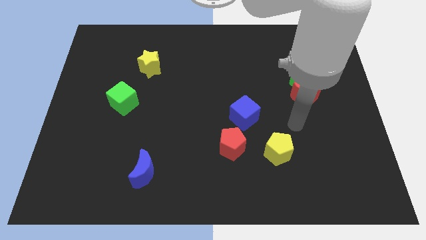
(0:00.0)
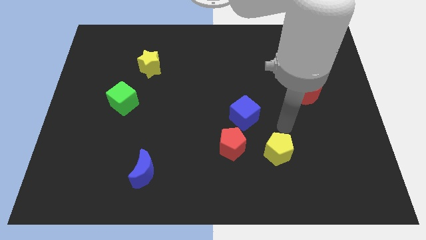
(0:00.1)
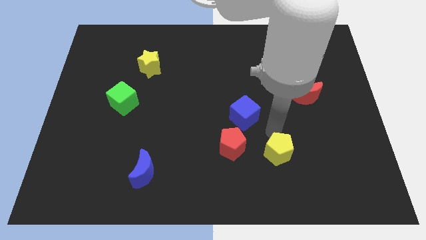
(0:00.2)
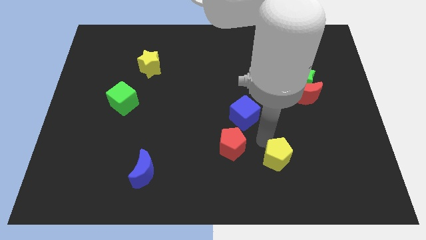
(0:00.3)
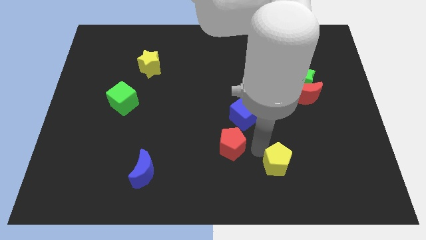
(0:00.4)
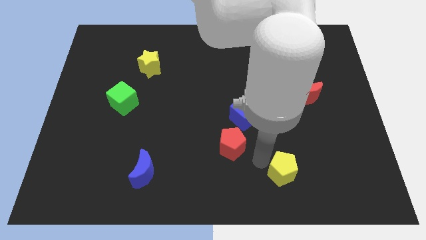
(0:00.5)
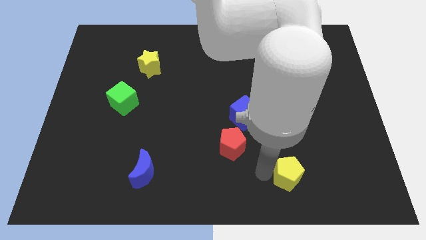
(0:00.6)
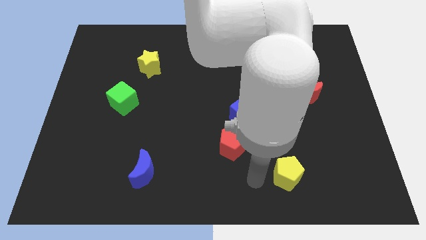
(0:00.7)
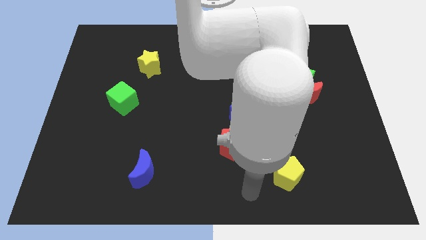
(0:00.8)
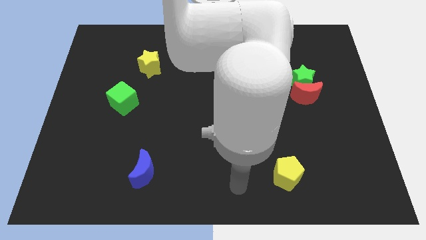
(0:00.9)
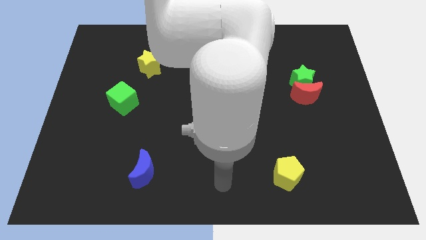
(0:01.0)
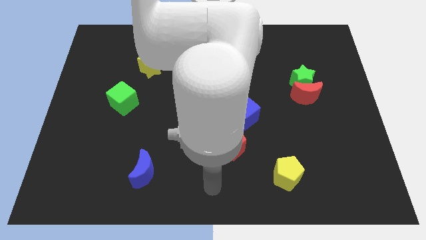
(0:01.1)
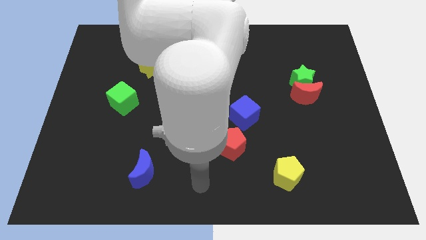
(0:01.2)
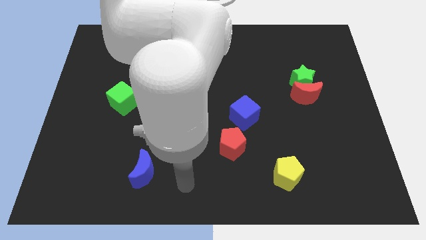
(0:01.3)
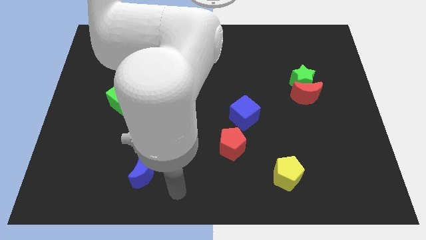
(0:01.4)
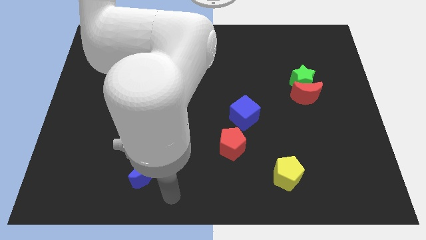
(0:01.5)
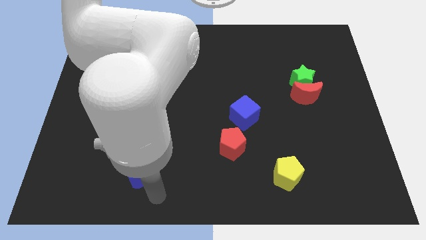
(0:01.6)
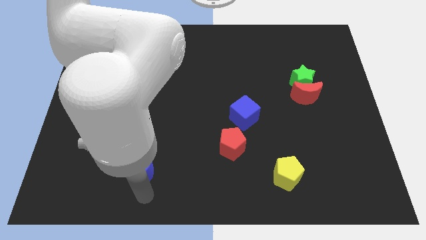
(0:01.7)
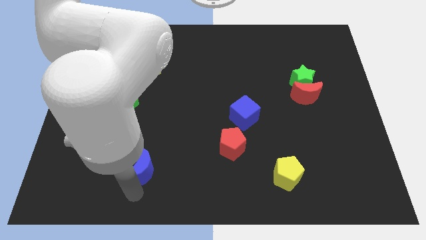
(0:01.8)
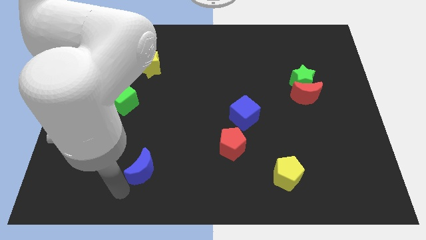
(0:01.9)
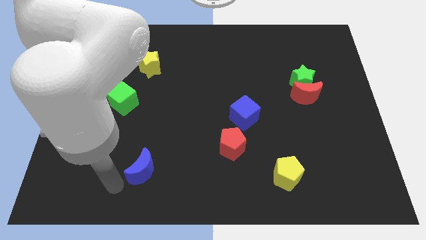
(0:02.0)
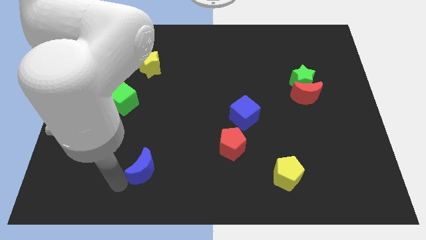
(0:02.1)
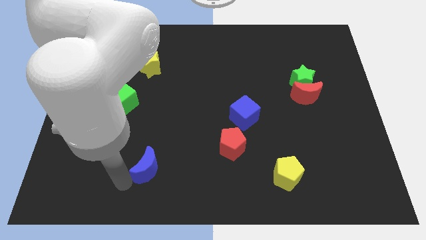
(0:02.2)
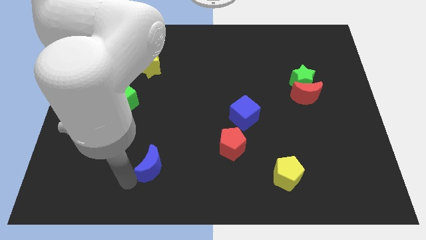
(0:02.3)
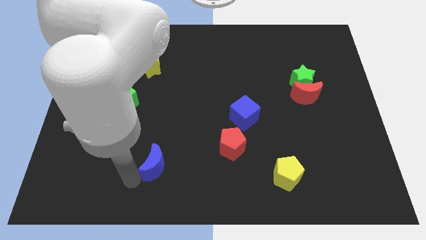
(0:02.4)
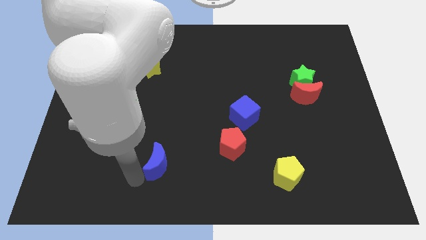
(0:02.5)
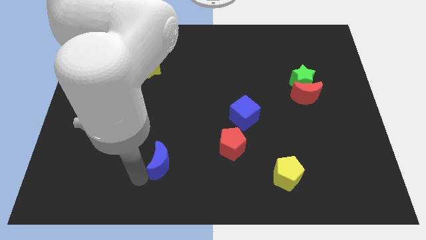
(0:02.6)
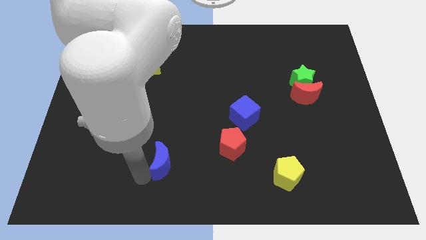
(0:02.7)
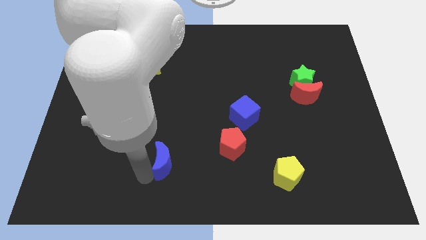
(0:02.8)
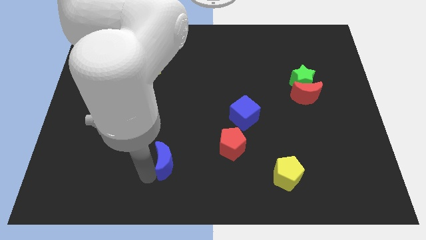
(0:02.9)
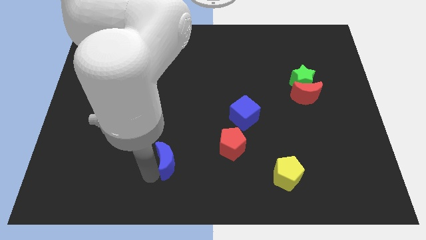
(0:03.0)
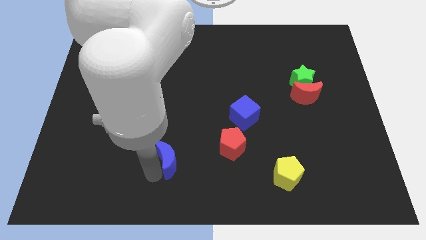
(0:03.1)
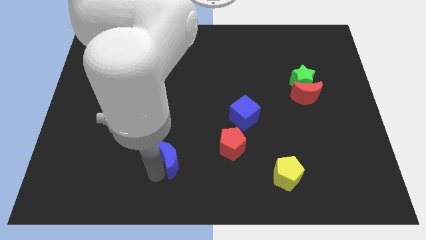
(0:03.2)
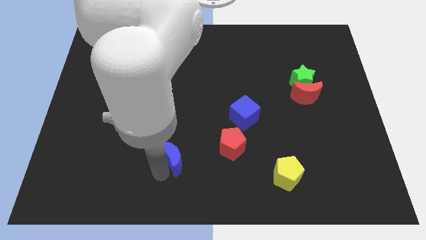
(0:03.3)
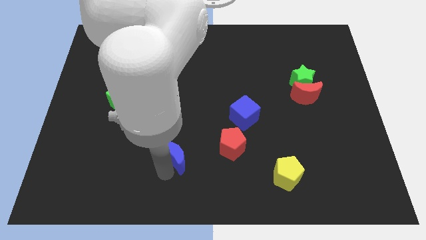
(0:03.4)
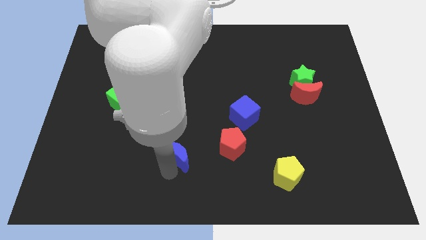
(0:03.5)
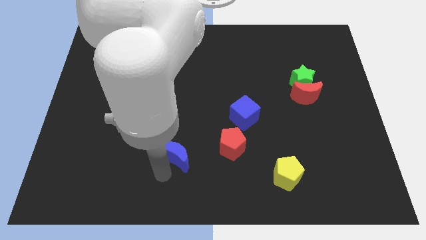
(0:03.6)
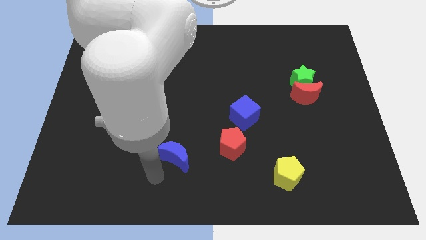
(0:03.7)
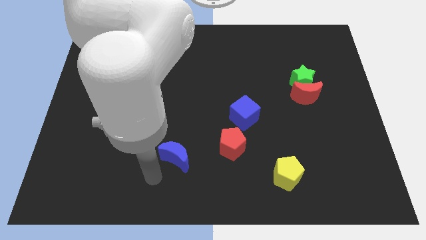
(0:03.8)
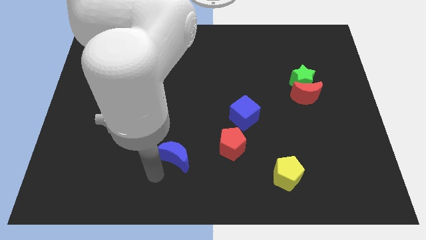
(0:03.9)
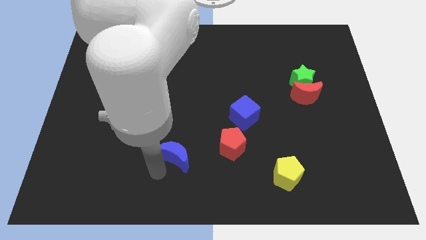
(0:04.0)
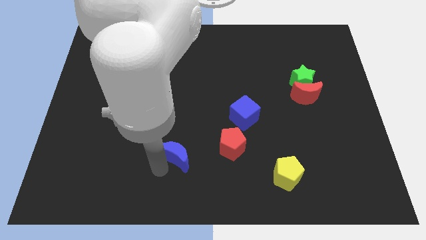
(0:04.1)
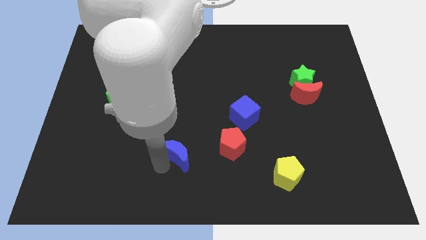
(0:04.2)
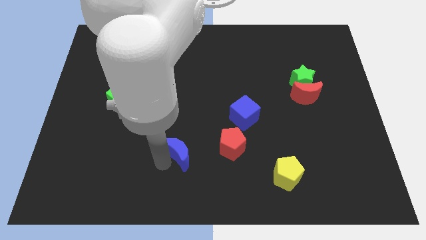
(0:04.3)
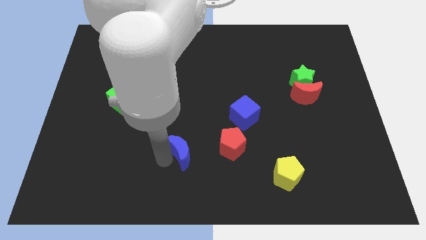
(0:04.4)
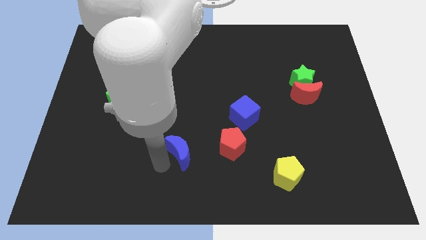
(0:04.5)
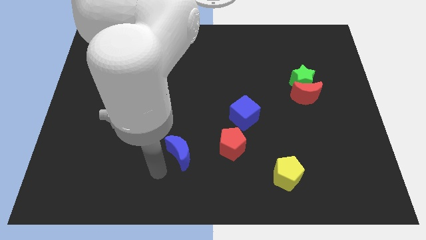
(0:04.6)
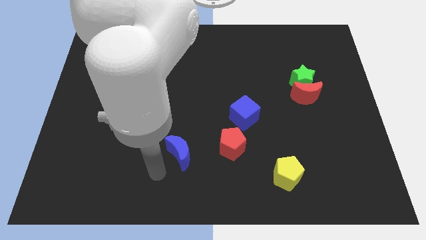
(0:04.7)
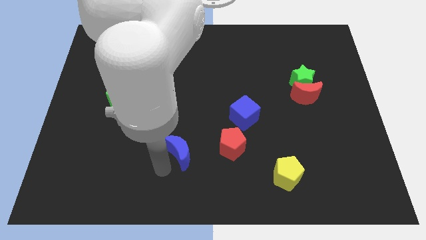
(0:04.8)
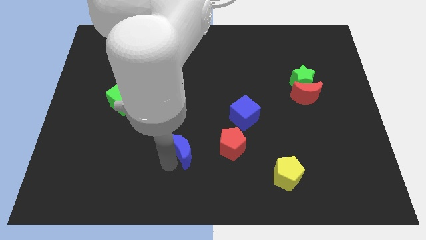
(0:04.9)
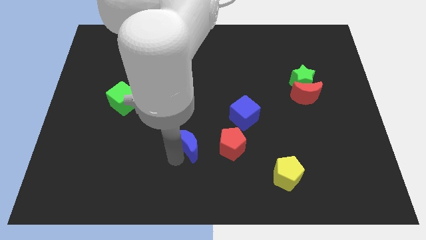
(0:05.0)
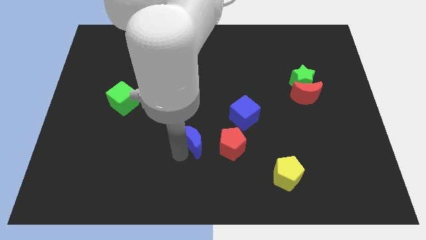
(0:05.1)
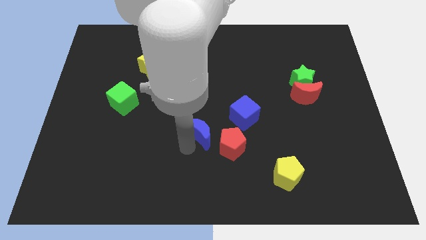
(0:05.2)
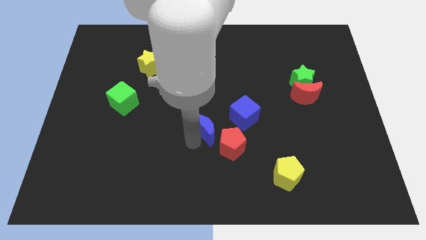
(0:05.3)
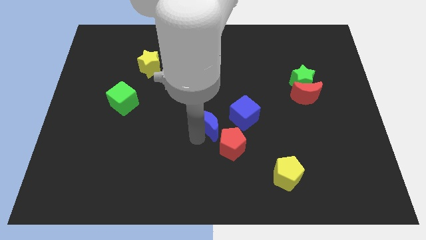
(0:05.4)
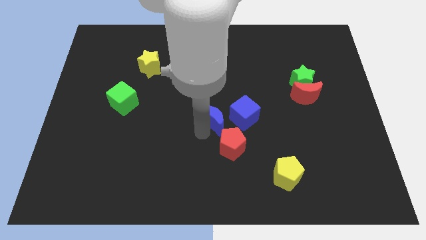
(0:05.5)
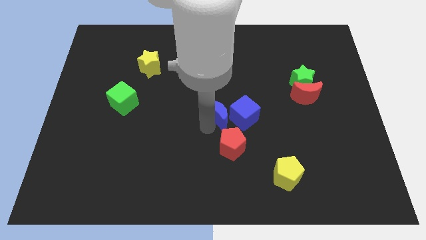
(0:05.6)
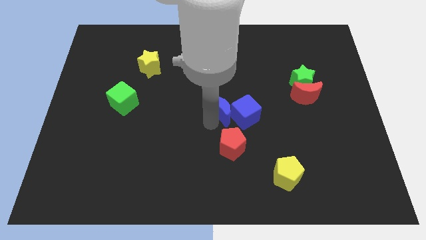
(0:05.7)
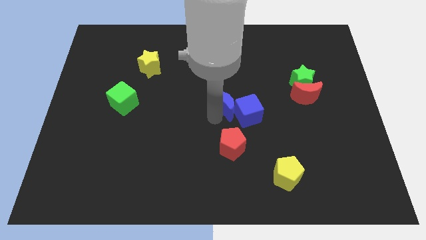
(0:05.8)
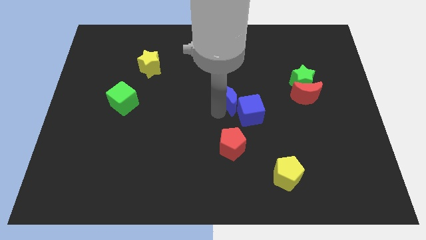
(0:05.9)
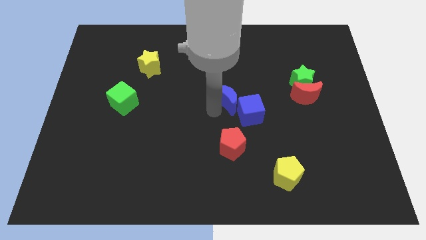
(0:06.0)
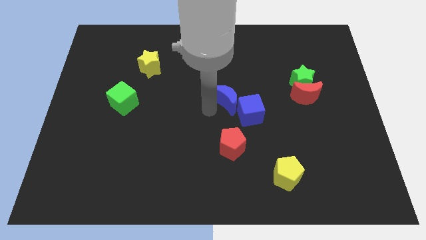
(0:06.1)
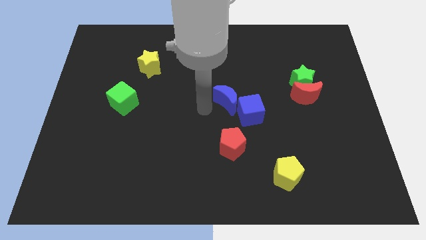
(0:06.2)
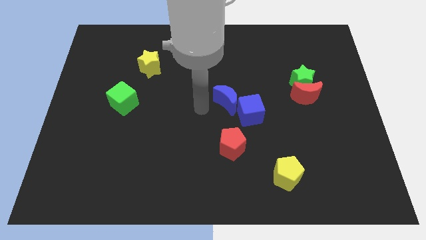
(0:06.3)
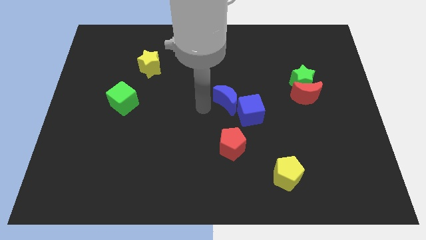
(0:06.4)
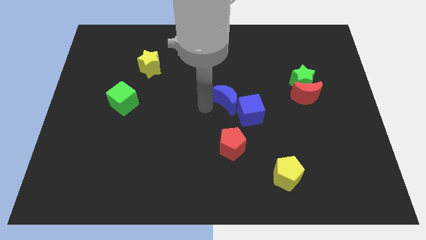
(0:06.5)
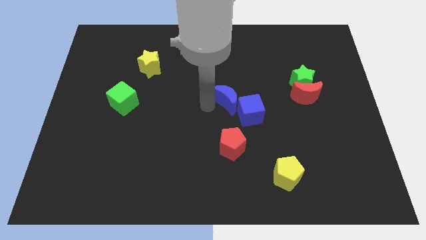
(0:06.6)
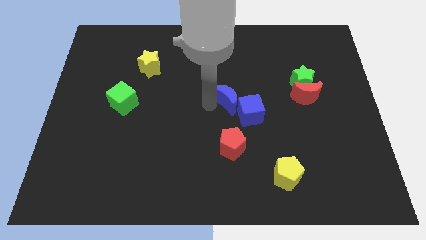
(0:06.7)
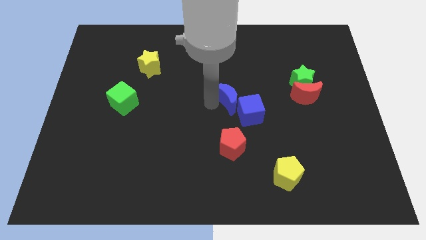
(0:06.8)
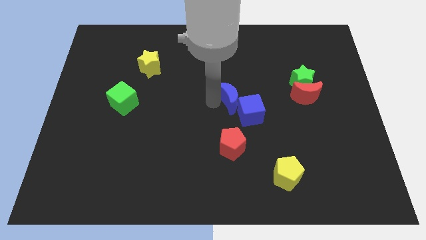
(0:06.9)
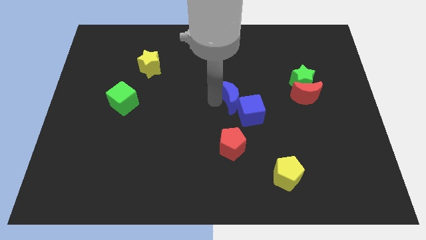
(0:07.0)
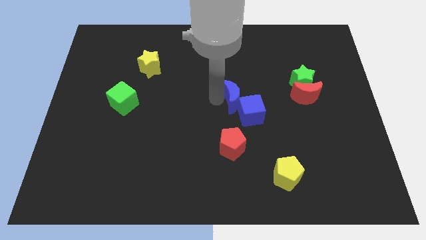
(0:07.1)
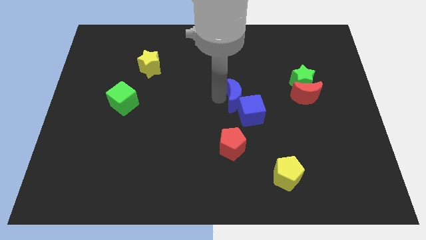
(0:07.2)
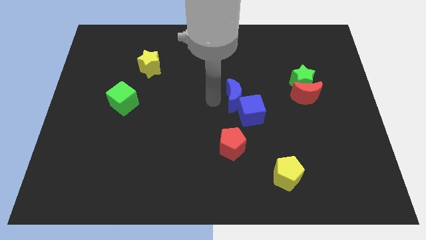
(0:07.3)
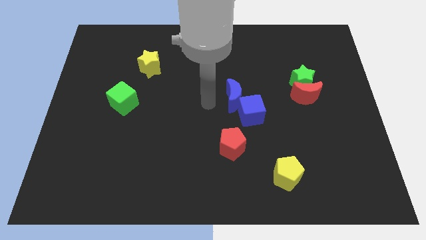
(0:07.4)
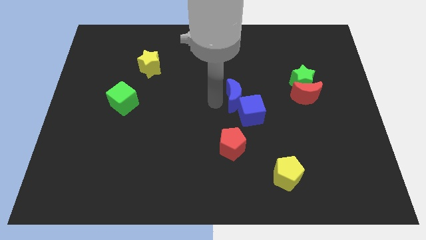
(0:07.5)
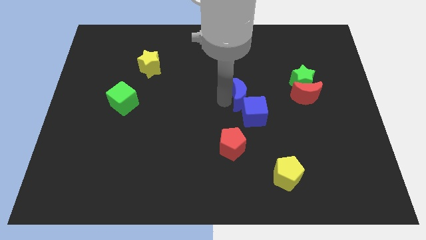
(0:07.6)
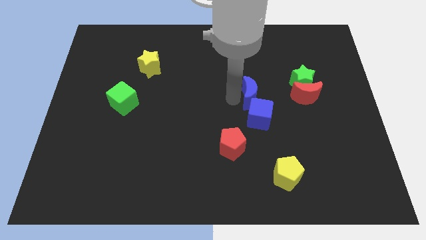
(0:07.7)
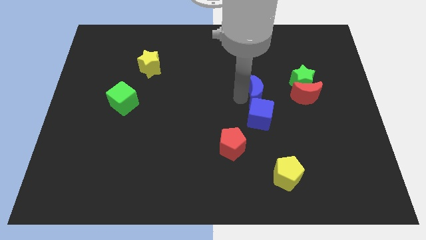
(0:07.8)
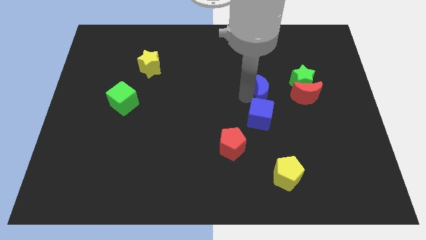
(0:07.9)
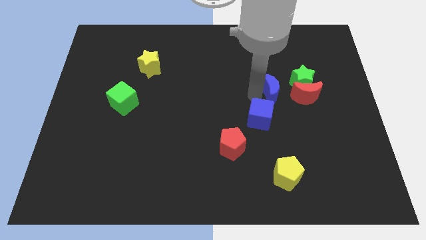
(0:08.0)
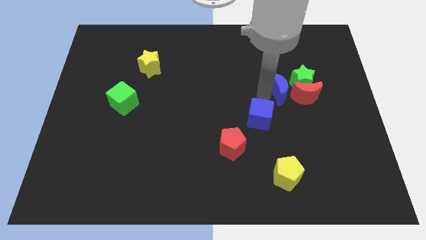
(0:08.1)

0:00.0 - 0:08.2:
slide the blue moon next to the green star
